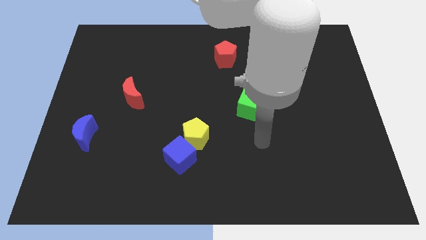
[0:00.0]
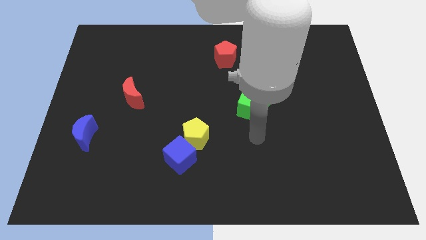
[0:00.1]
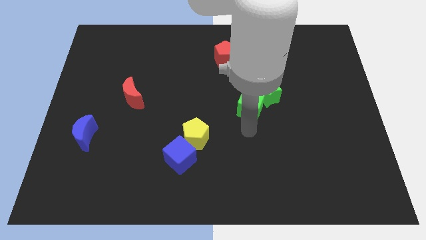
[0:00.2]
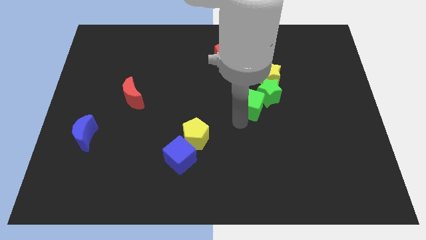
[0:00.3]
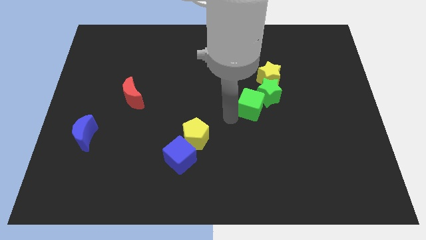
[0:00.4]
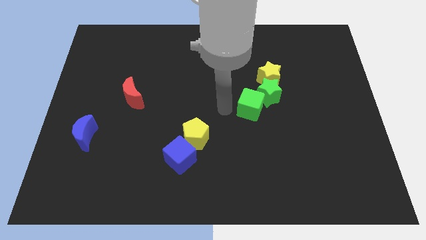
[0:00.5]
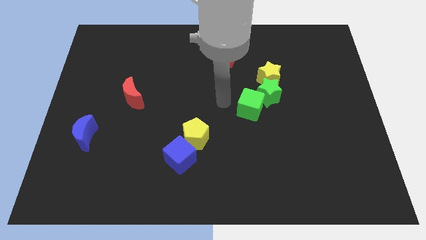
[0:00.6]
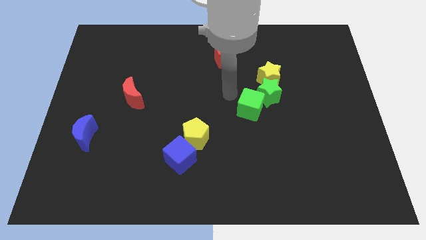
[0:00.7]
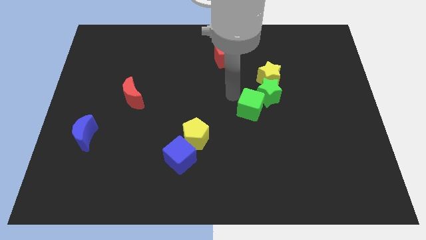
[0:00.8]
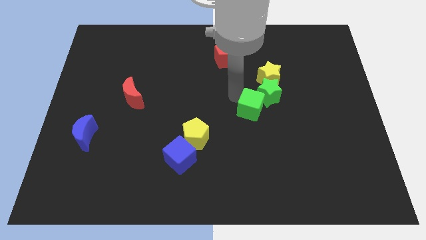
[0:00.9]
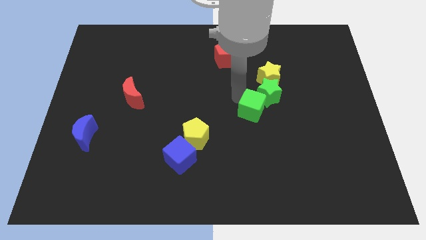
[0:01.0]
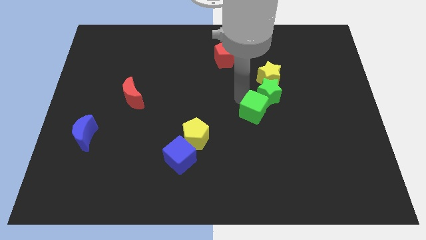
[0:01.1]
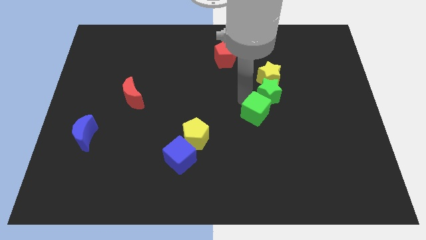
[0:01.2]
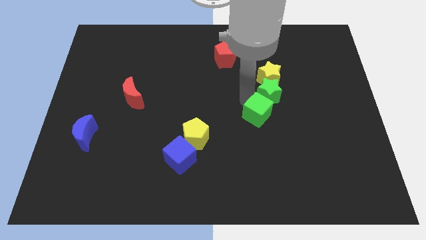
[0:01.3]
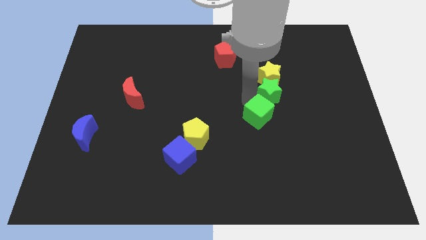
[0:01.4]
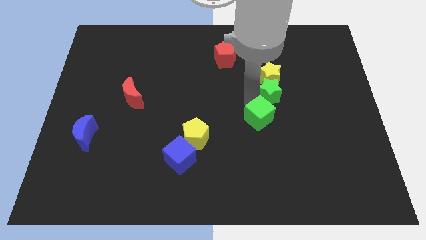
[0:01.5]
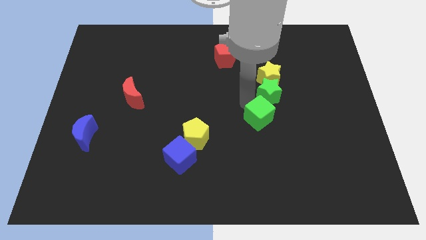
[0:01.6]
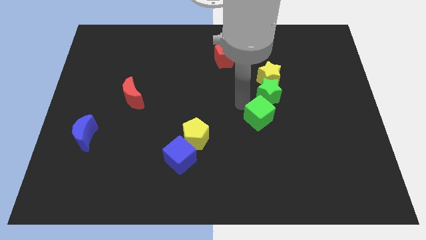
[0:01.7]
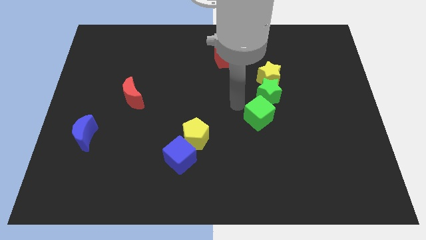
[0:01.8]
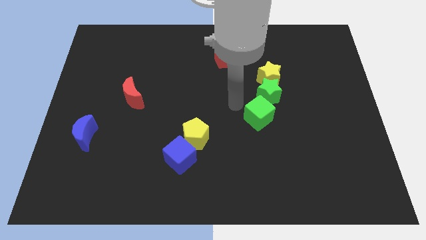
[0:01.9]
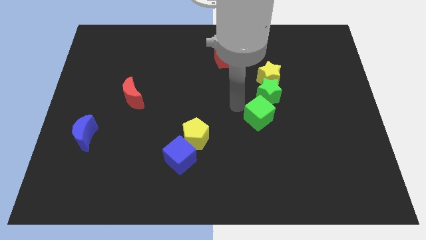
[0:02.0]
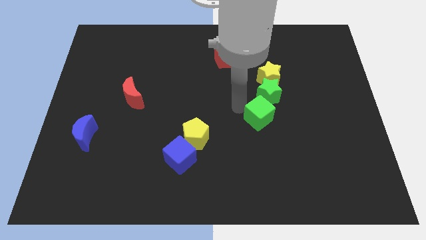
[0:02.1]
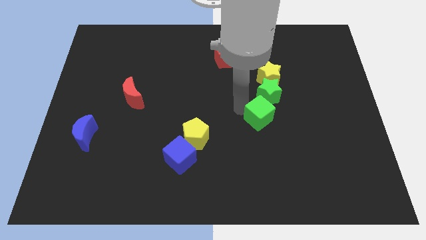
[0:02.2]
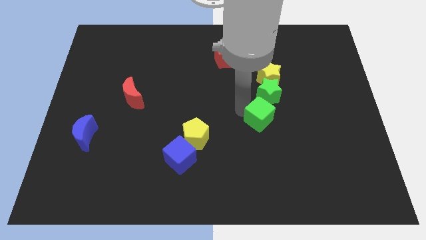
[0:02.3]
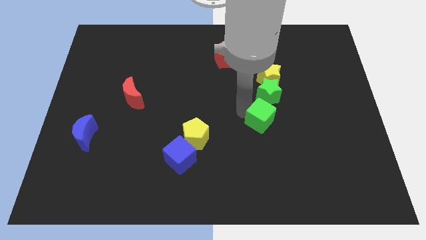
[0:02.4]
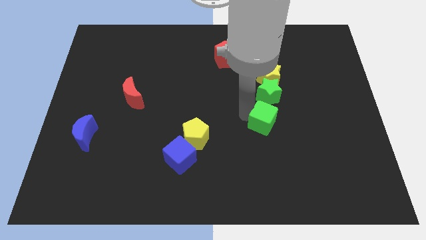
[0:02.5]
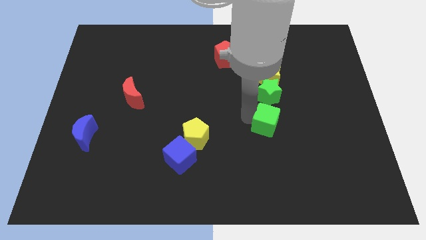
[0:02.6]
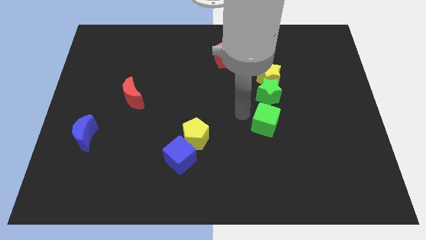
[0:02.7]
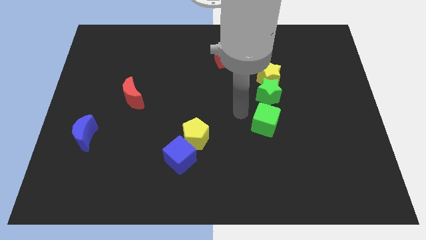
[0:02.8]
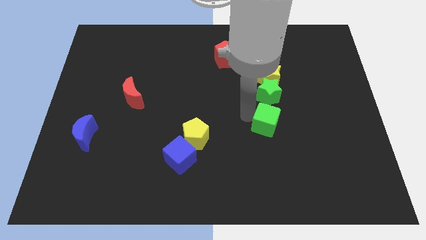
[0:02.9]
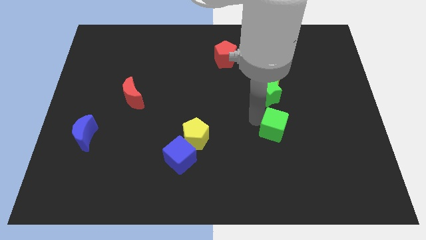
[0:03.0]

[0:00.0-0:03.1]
slide the green cube downwards and then right a bit

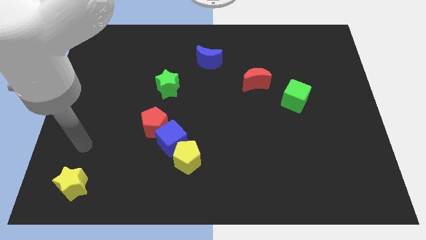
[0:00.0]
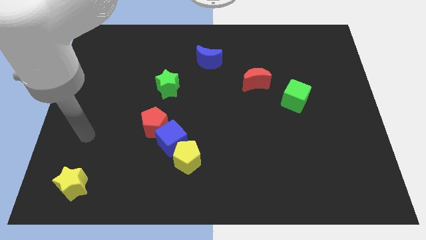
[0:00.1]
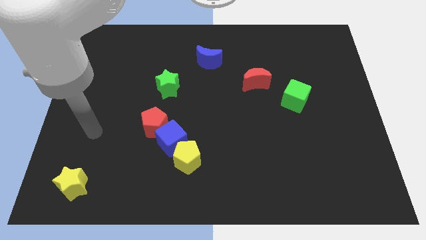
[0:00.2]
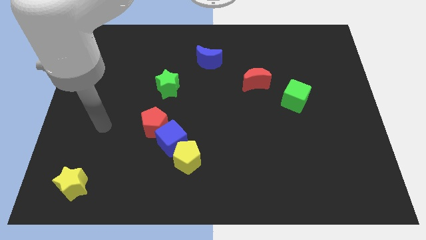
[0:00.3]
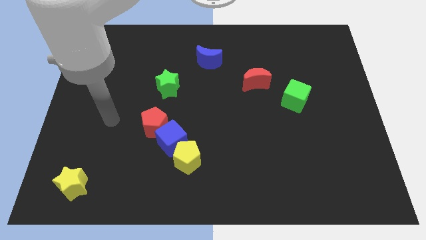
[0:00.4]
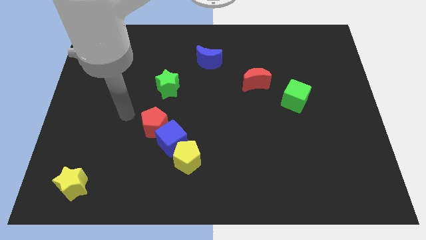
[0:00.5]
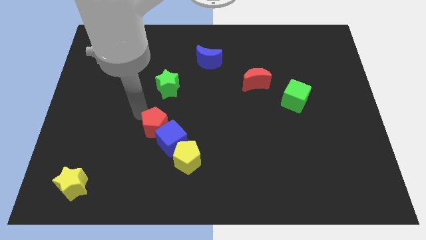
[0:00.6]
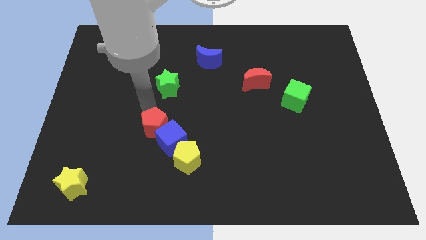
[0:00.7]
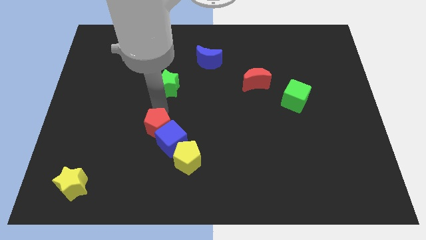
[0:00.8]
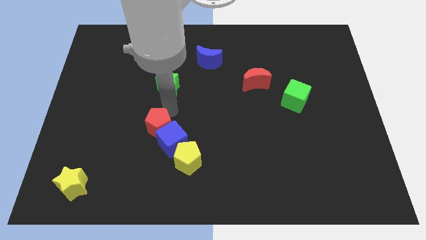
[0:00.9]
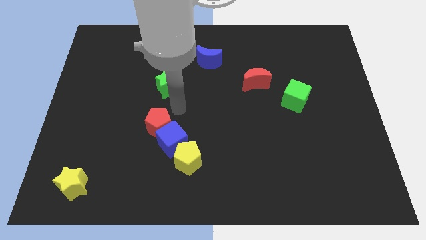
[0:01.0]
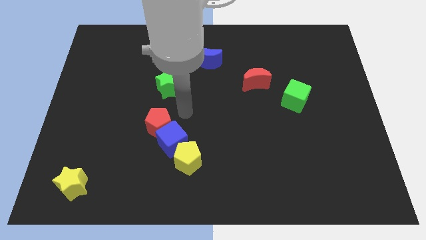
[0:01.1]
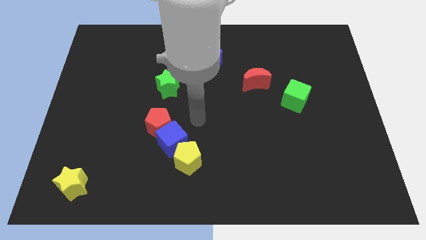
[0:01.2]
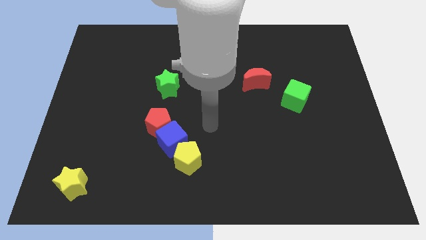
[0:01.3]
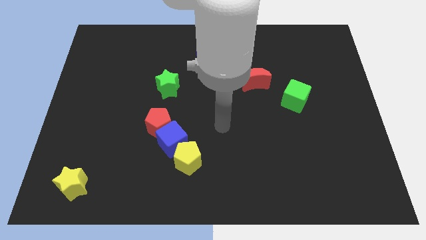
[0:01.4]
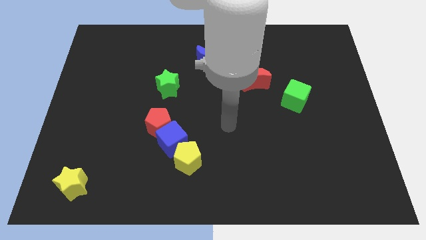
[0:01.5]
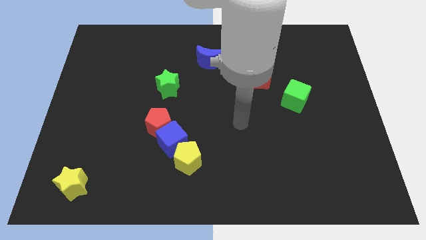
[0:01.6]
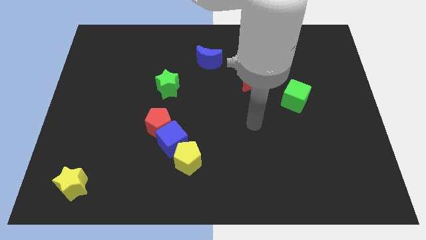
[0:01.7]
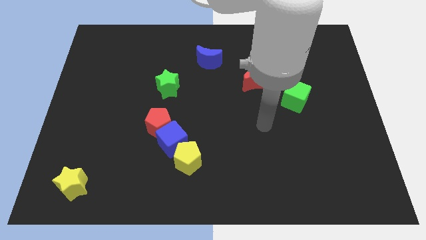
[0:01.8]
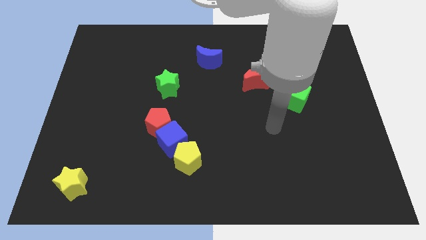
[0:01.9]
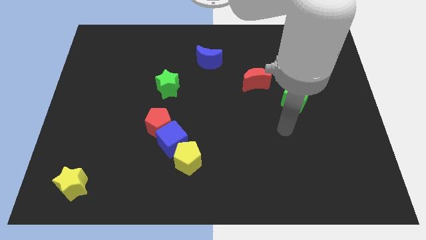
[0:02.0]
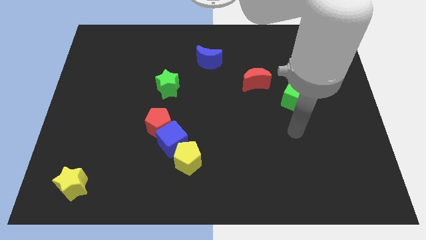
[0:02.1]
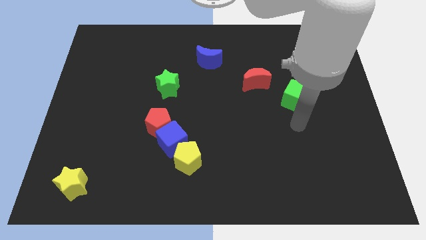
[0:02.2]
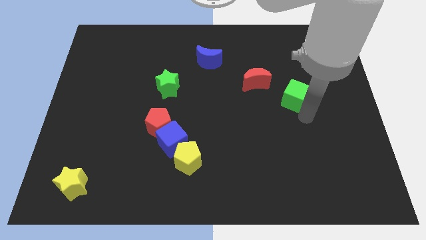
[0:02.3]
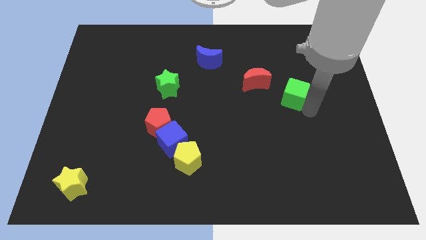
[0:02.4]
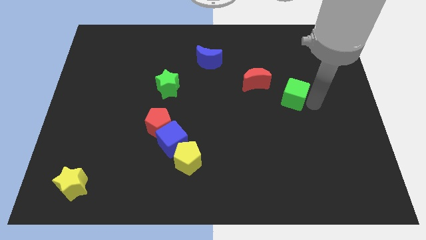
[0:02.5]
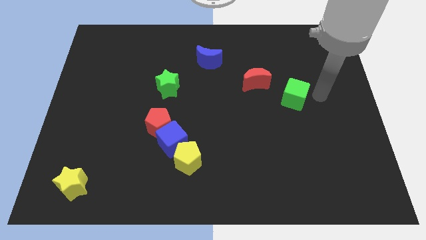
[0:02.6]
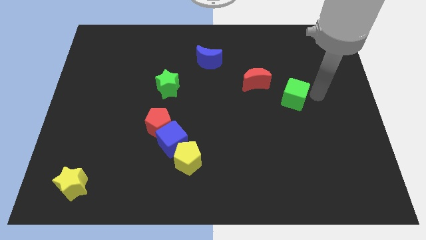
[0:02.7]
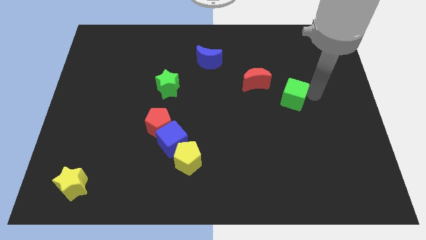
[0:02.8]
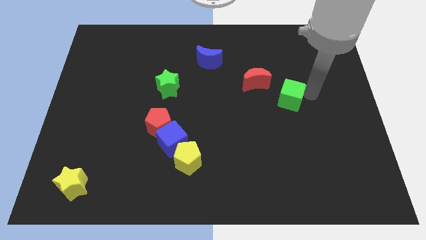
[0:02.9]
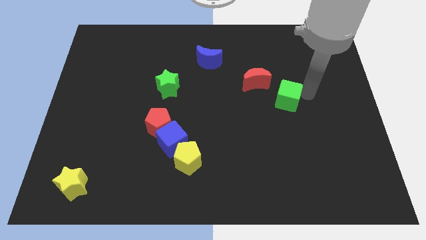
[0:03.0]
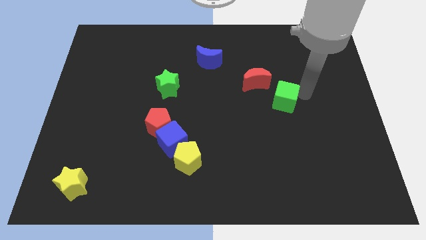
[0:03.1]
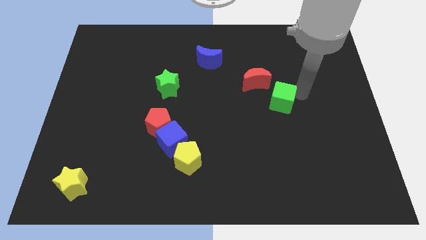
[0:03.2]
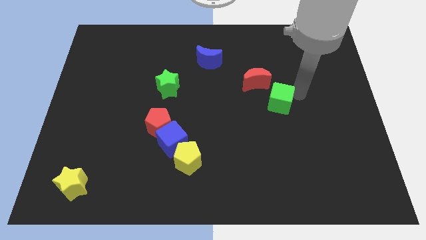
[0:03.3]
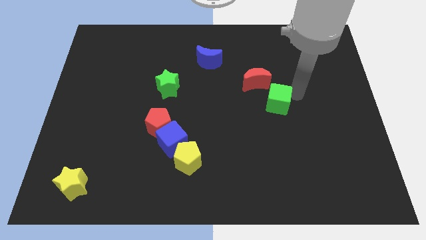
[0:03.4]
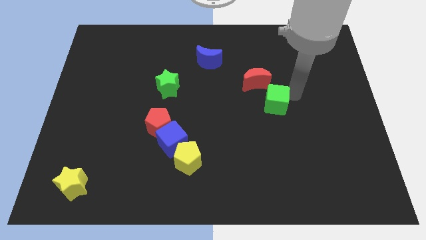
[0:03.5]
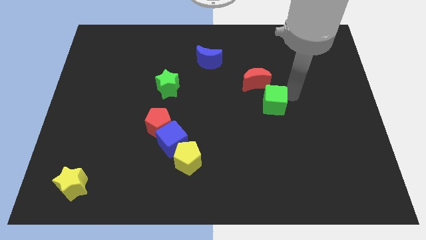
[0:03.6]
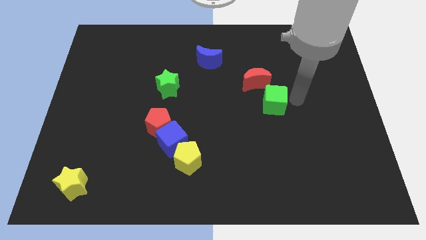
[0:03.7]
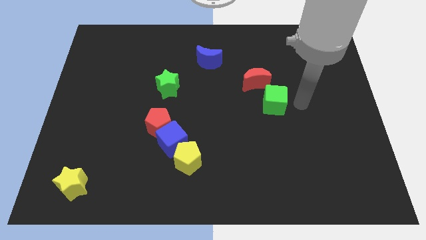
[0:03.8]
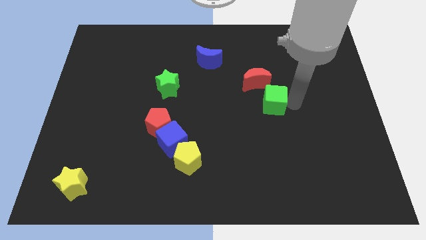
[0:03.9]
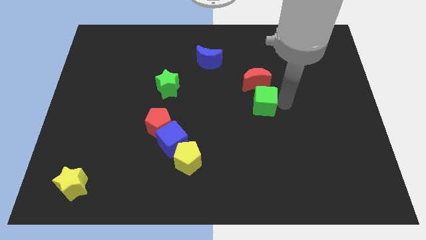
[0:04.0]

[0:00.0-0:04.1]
slightly move the green cube left

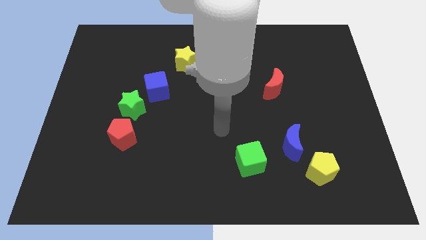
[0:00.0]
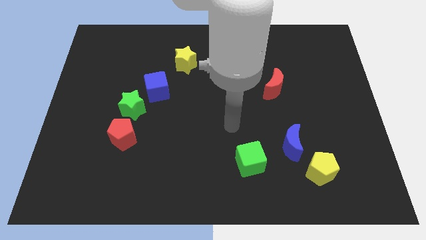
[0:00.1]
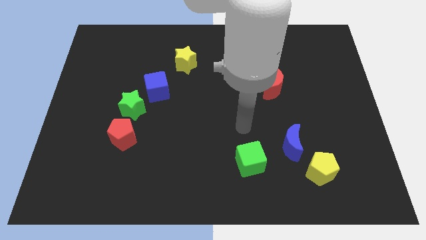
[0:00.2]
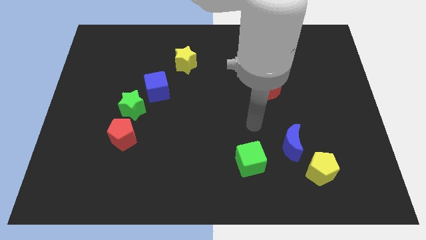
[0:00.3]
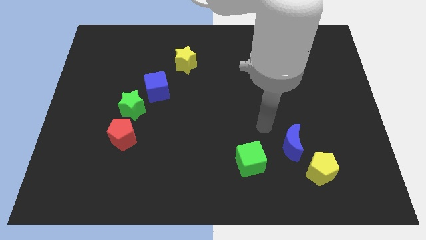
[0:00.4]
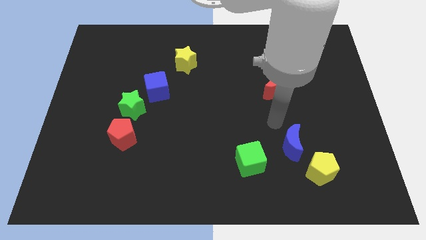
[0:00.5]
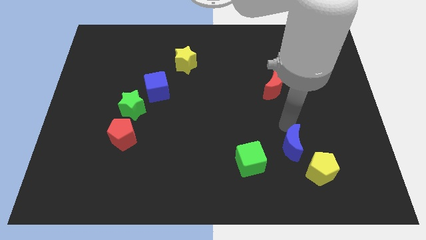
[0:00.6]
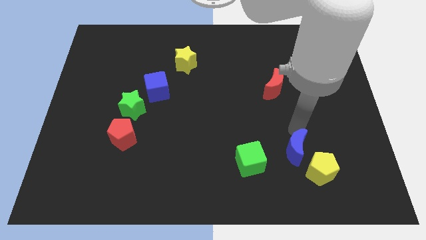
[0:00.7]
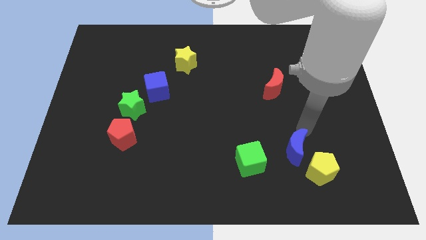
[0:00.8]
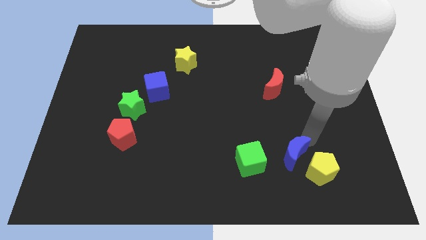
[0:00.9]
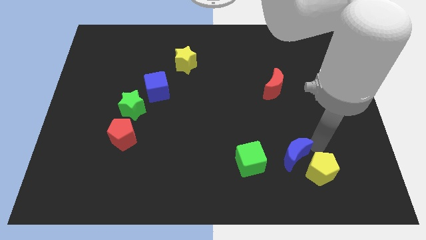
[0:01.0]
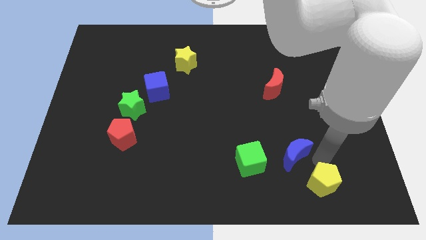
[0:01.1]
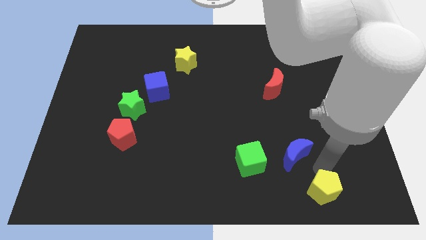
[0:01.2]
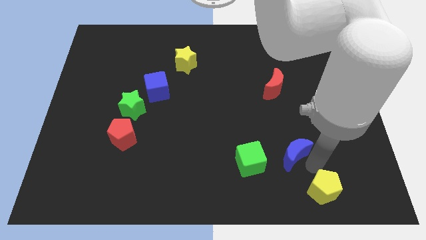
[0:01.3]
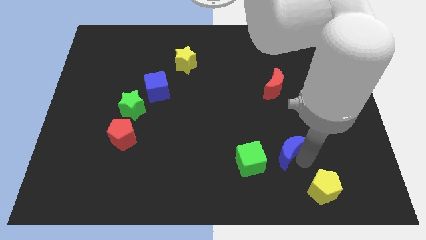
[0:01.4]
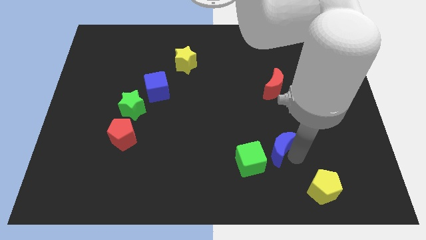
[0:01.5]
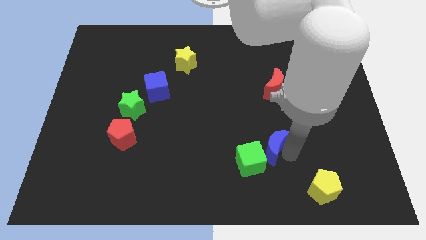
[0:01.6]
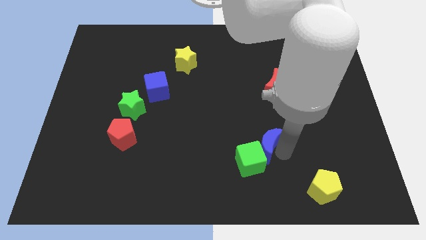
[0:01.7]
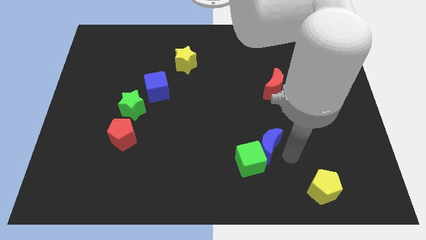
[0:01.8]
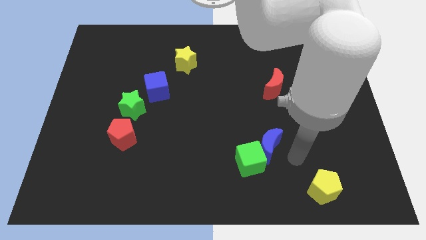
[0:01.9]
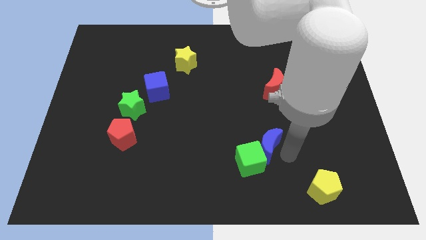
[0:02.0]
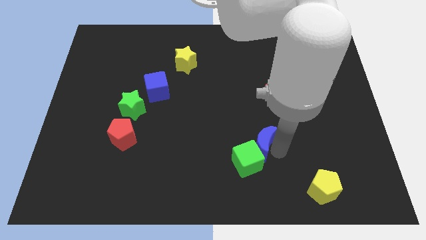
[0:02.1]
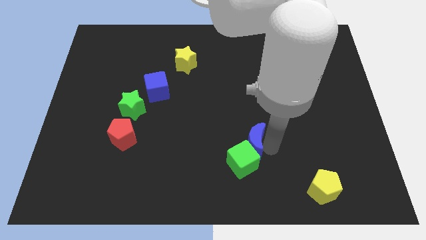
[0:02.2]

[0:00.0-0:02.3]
slightly push the blue moon left
